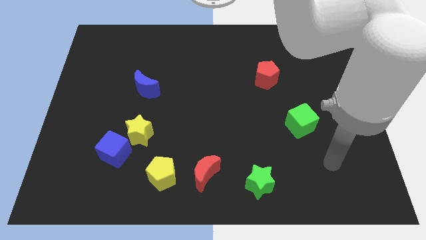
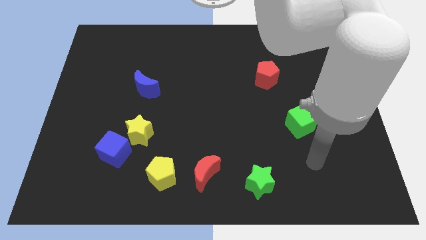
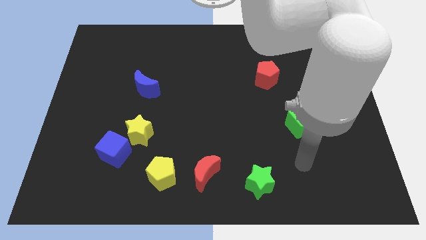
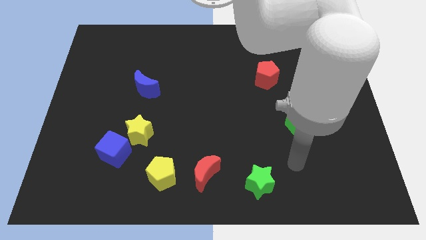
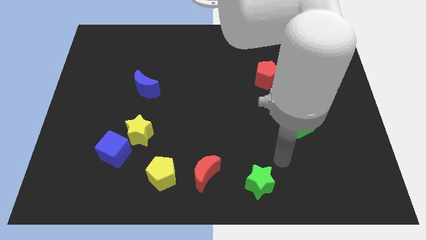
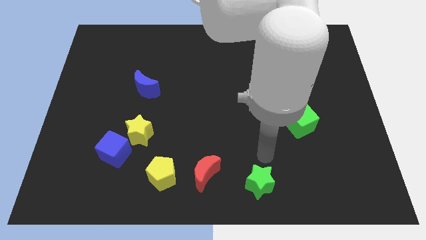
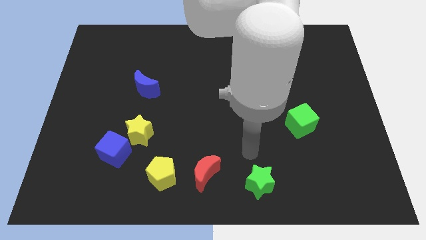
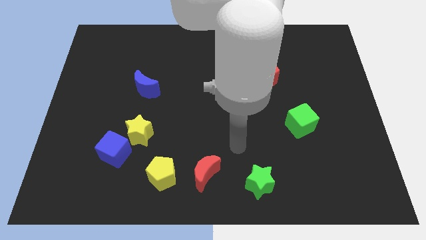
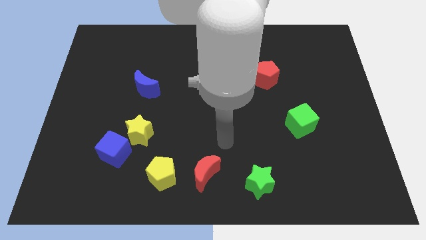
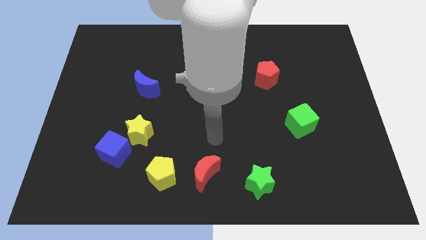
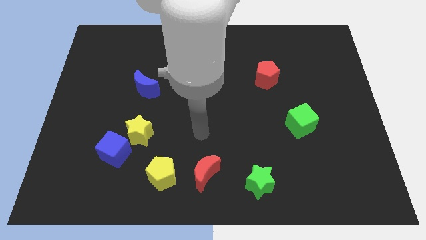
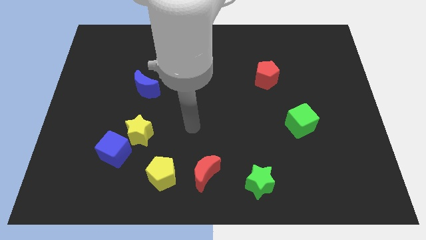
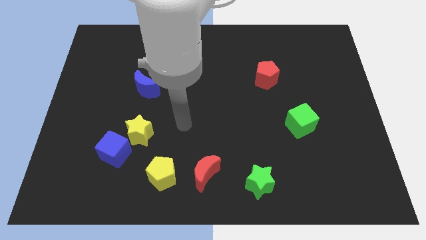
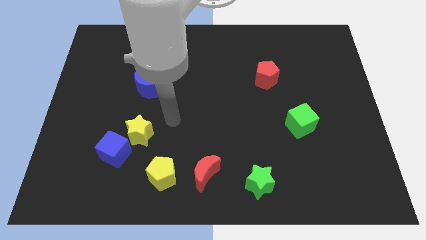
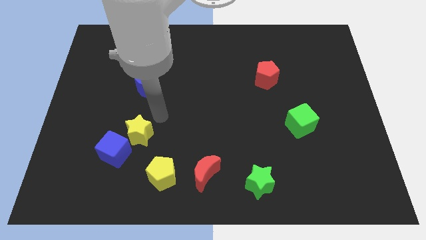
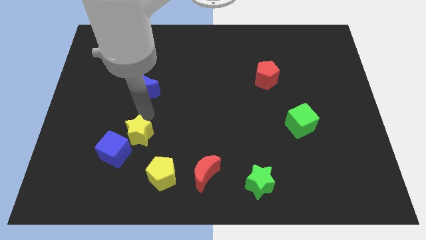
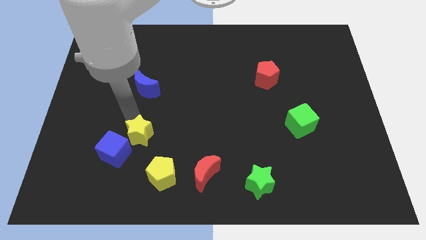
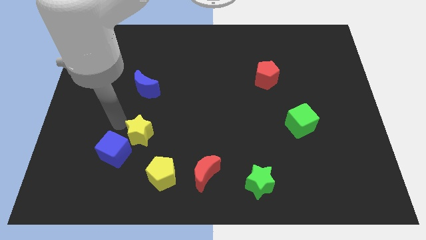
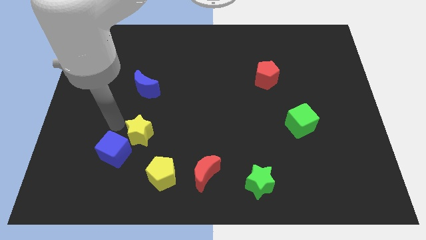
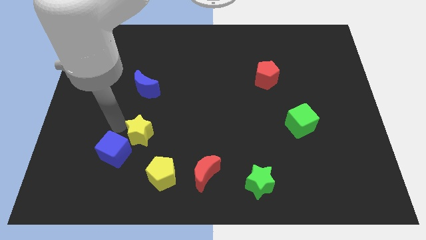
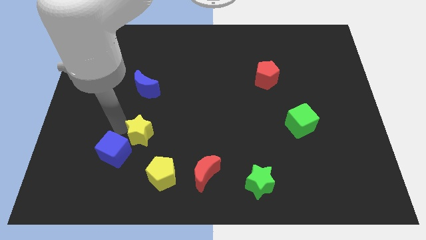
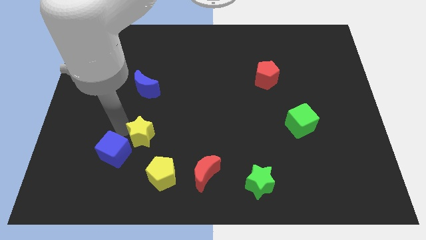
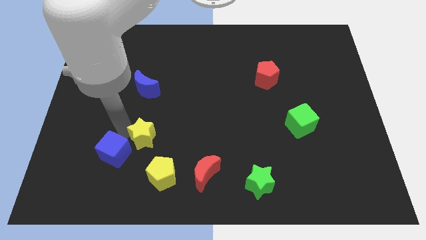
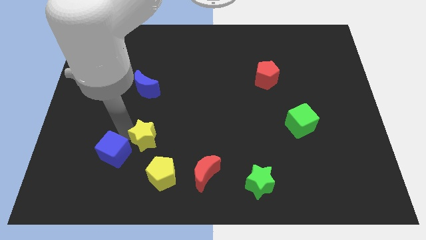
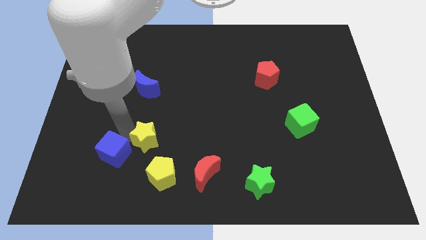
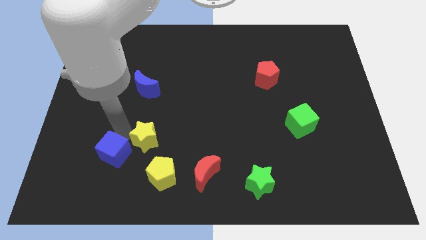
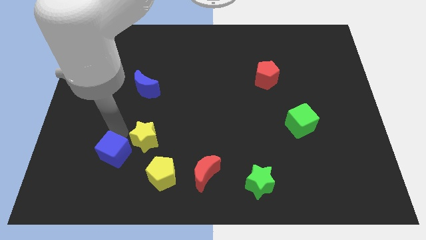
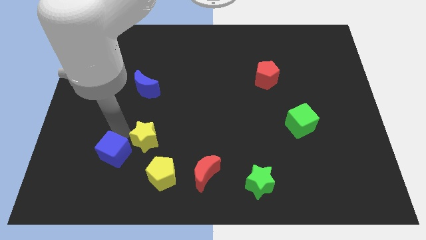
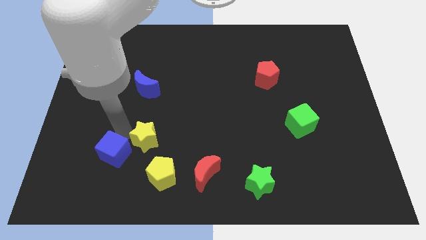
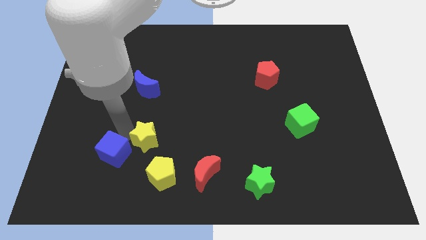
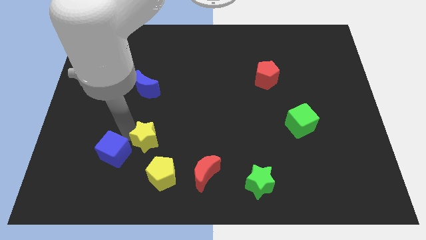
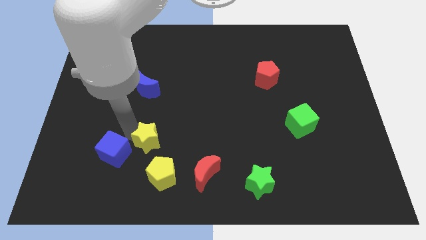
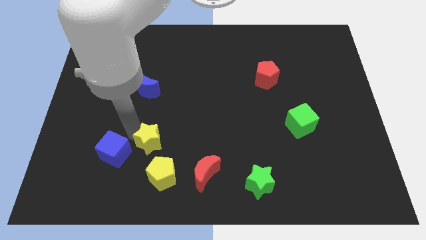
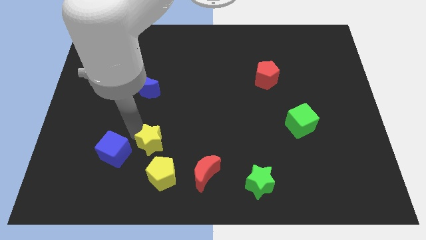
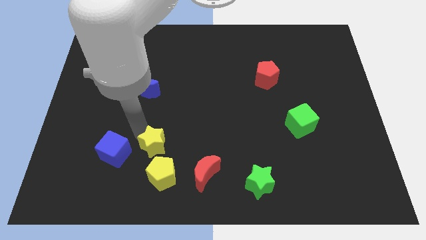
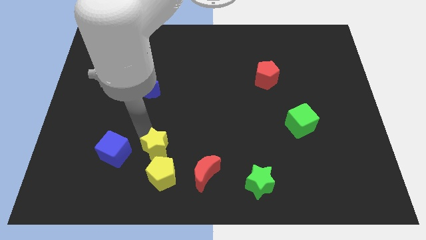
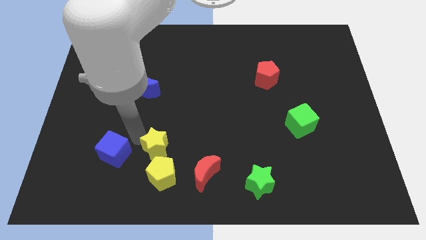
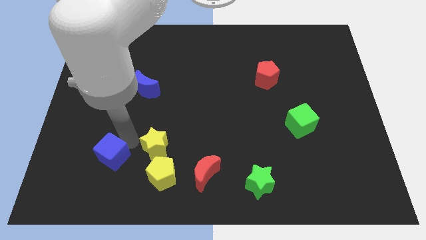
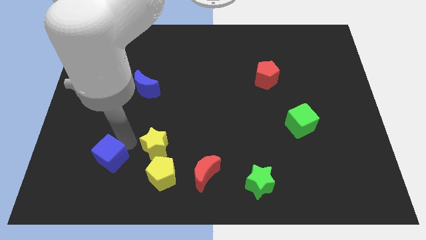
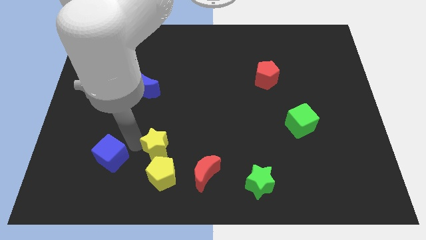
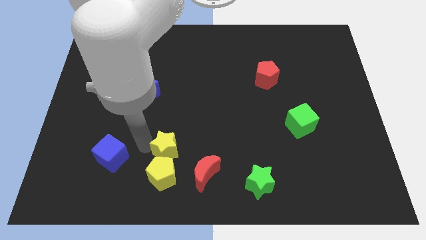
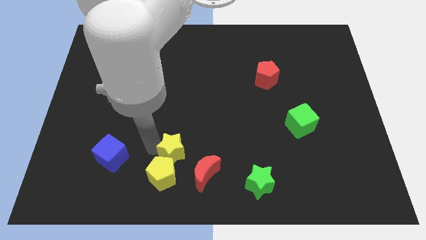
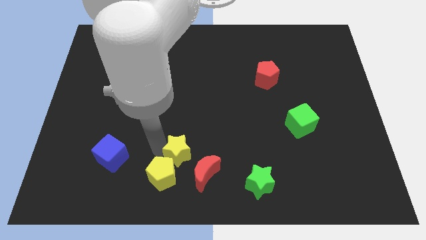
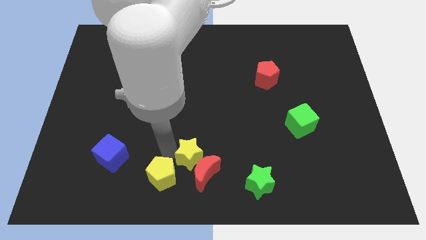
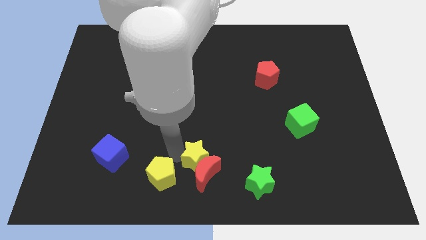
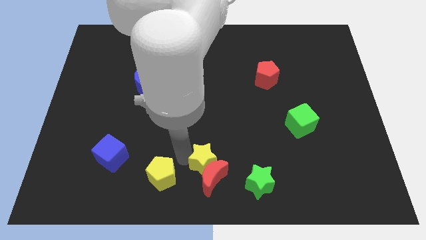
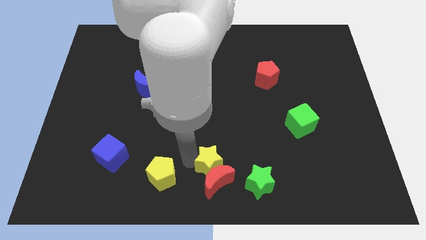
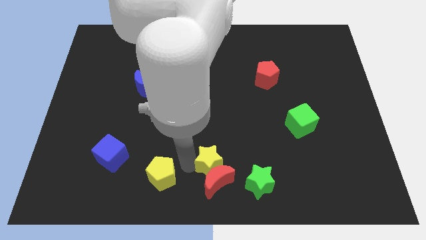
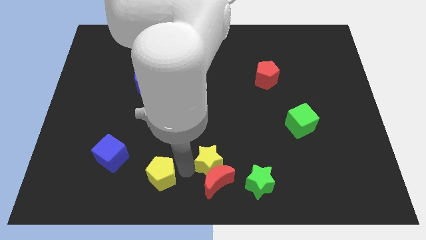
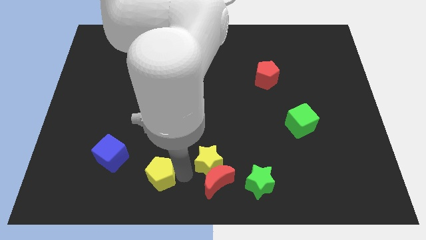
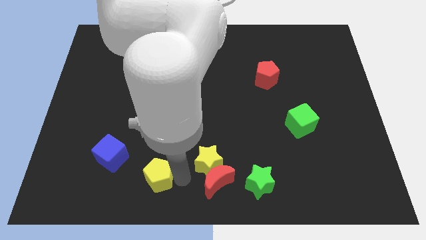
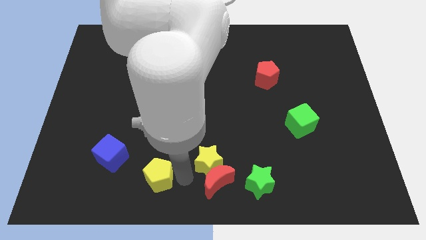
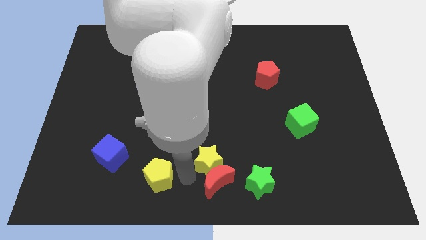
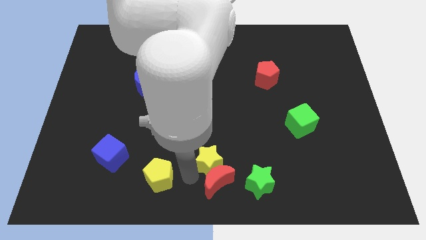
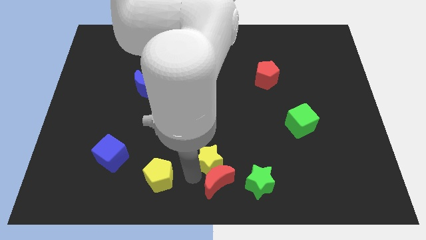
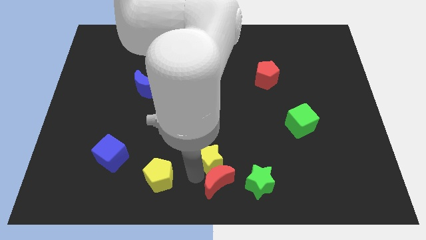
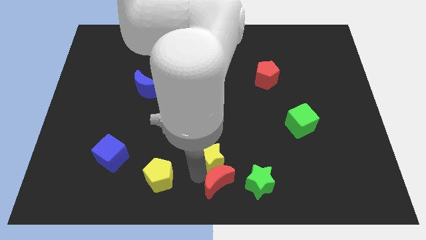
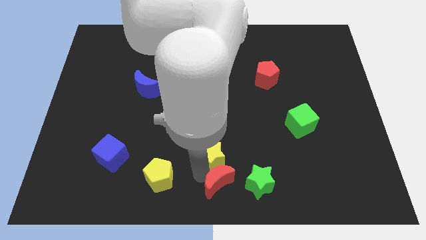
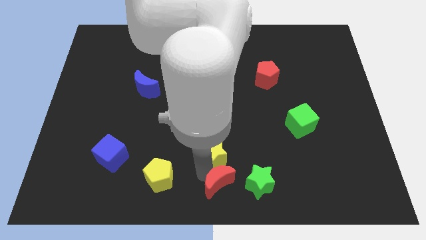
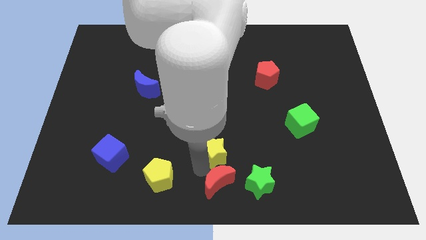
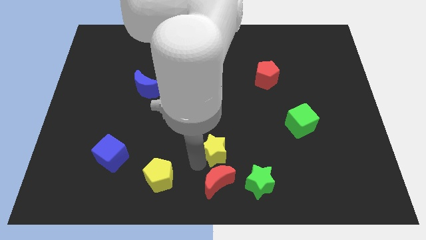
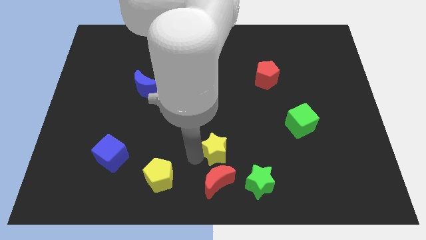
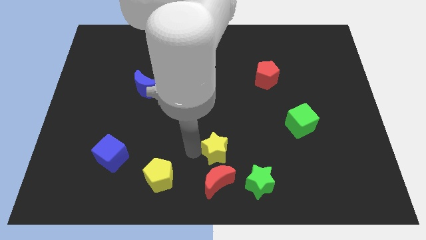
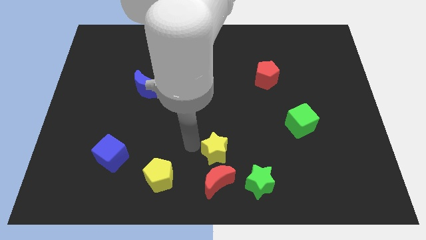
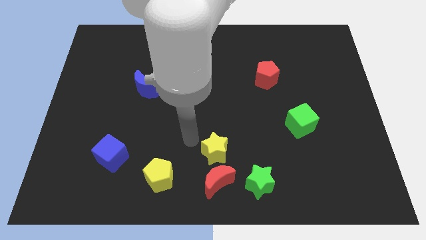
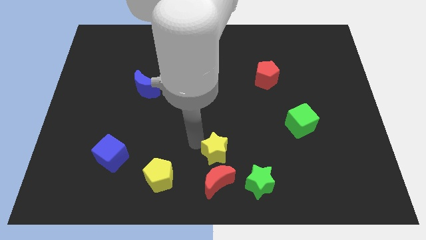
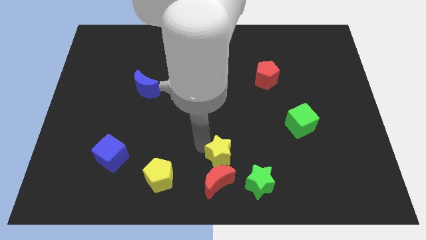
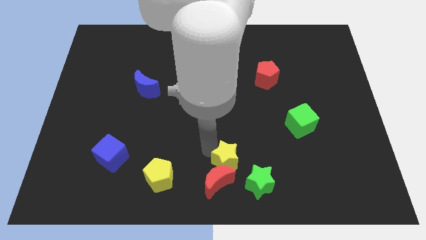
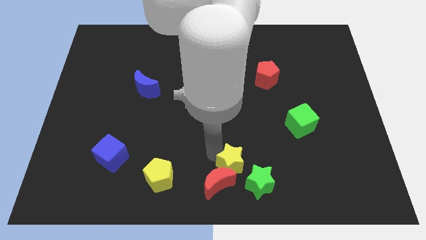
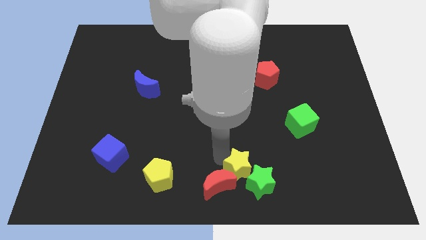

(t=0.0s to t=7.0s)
put the yellow star towards the green star

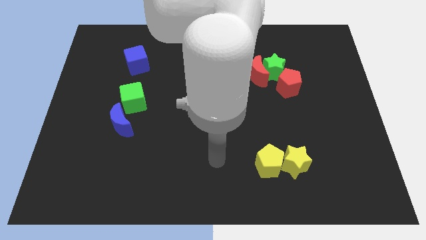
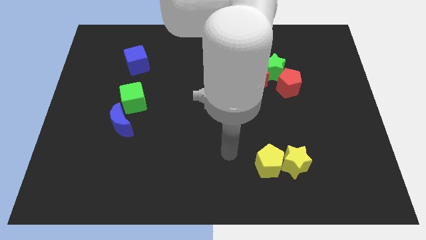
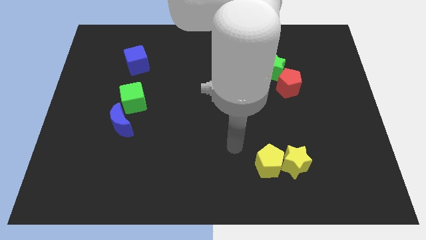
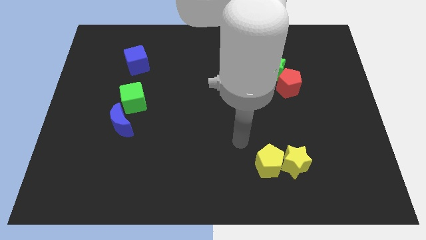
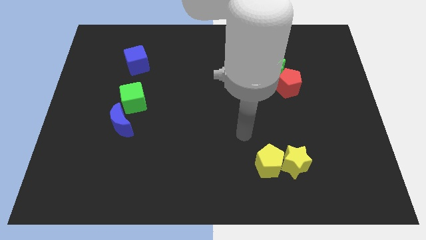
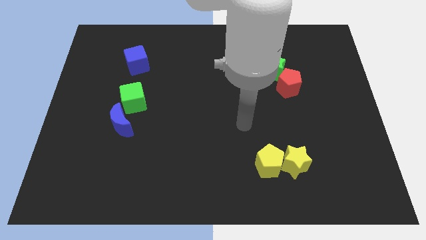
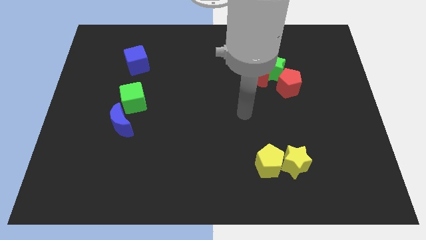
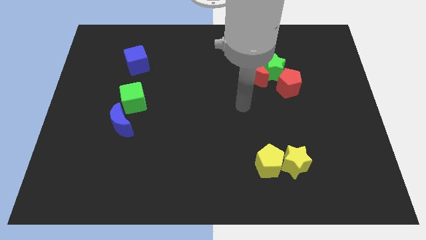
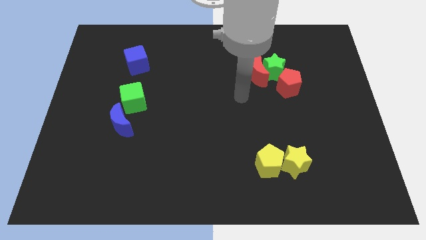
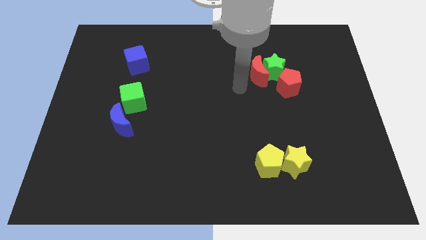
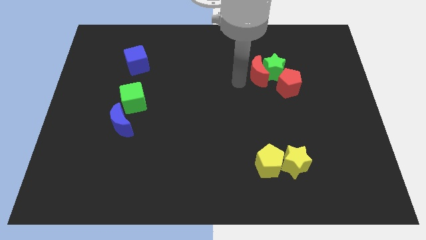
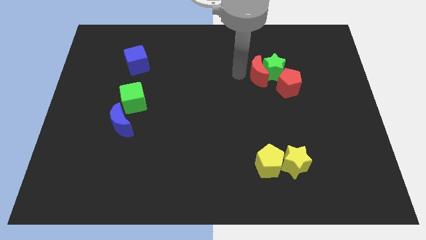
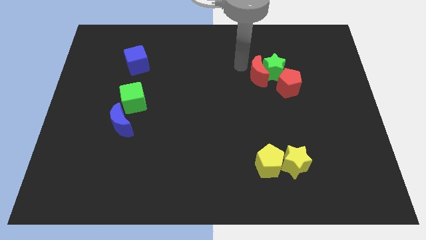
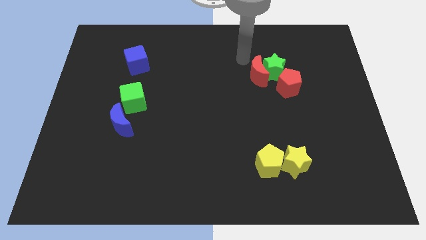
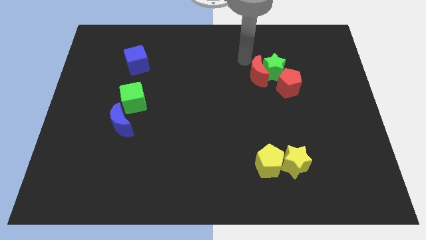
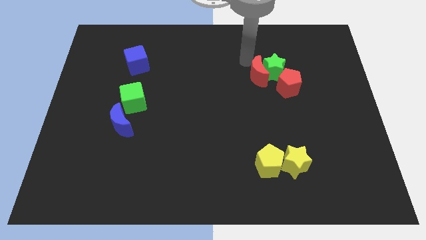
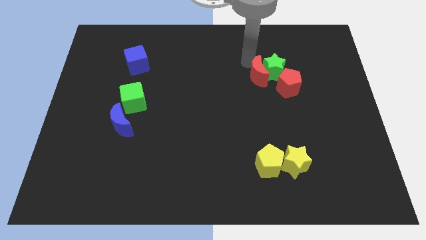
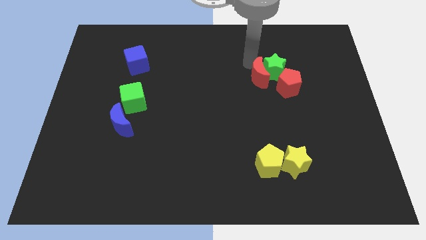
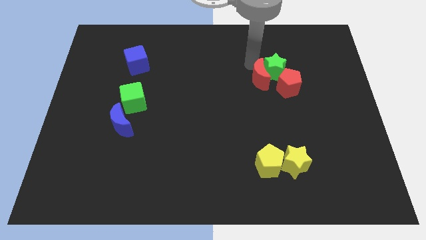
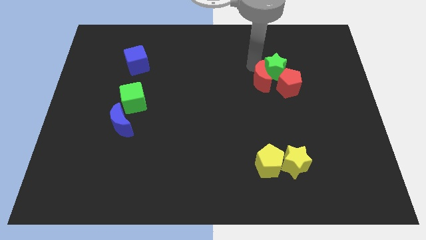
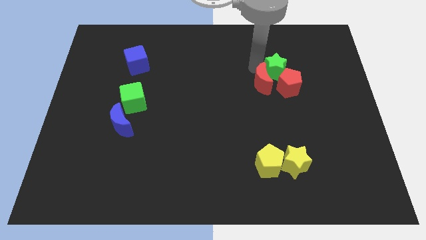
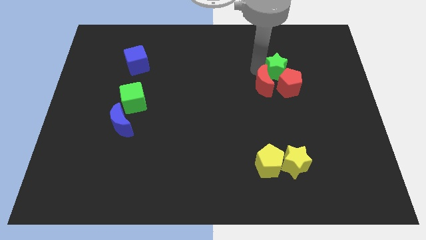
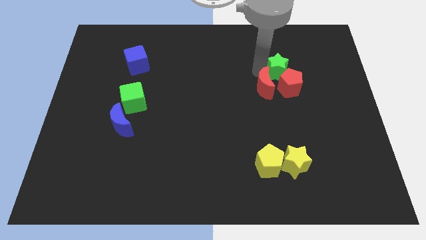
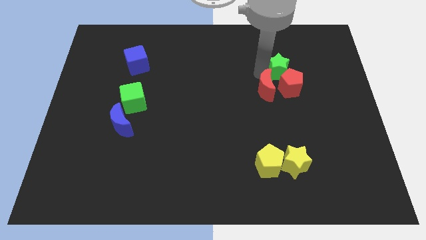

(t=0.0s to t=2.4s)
move the red moon close to the red pentagon
